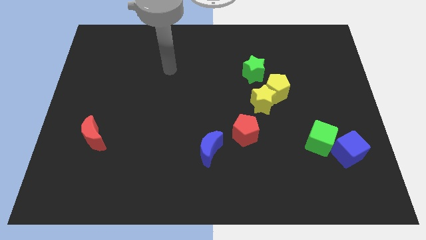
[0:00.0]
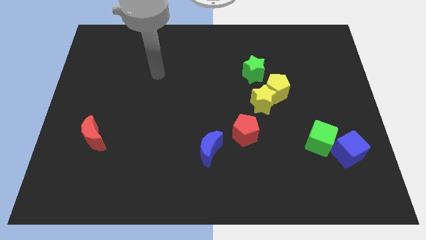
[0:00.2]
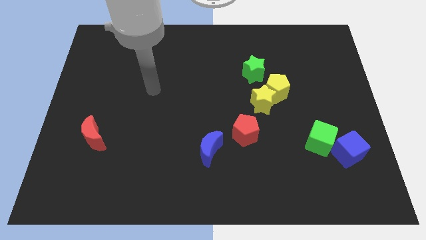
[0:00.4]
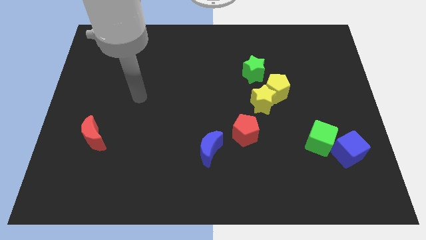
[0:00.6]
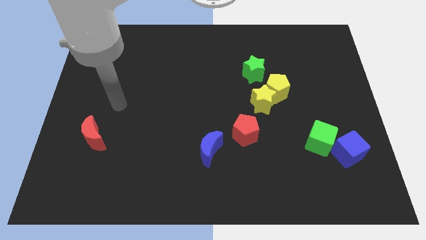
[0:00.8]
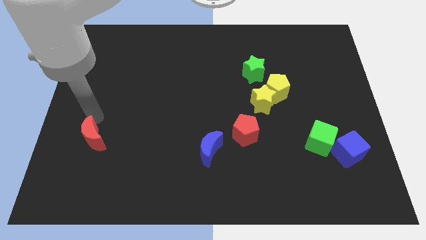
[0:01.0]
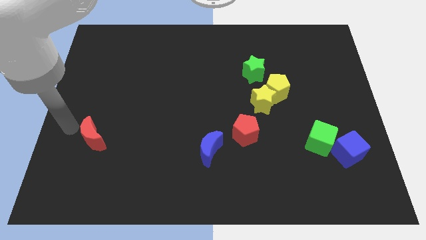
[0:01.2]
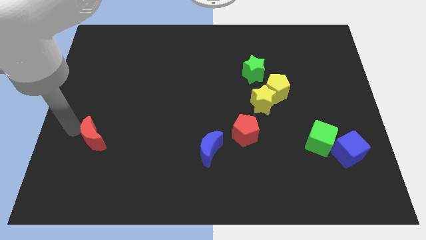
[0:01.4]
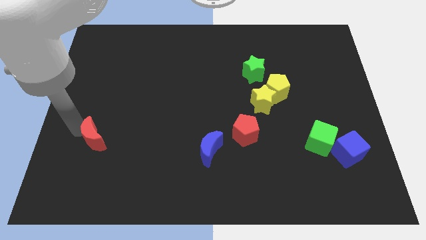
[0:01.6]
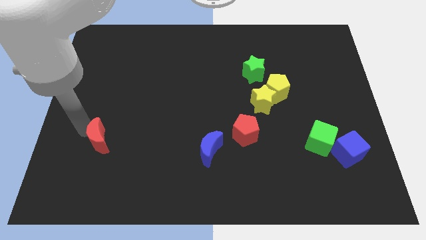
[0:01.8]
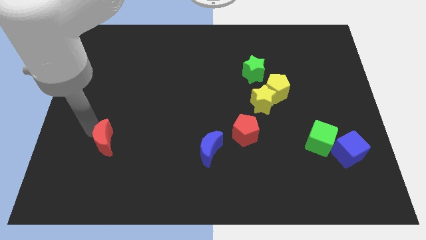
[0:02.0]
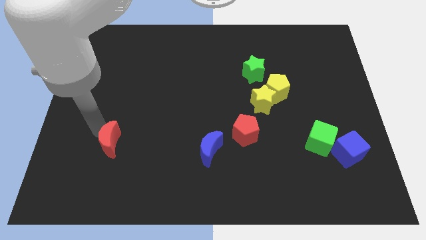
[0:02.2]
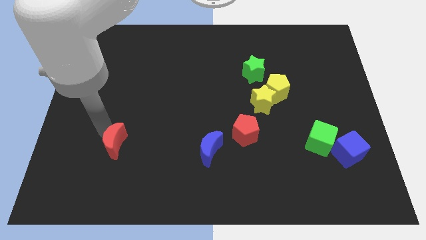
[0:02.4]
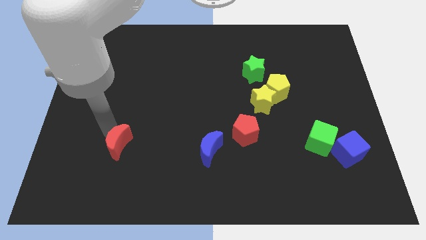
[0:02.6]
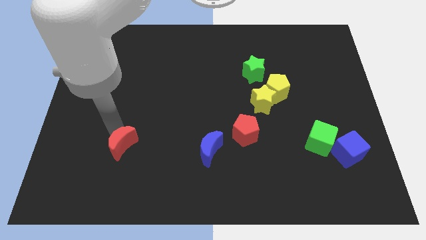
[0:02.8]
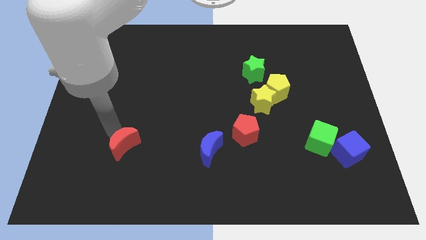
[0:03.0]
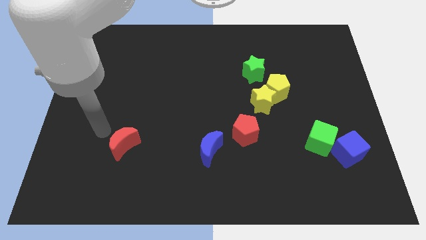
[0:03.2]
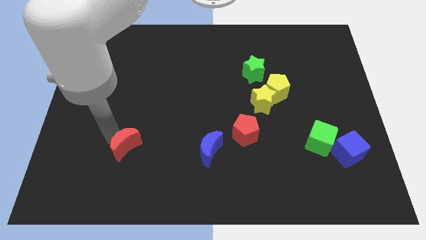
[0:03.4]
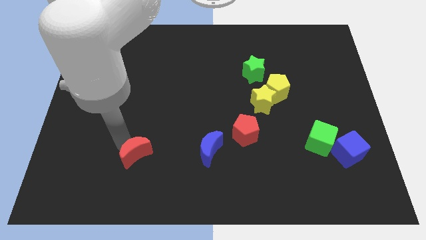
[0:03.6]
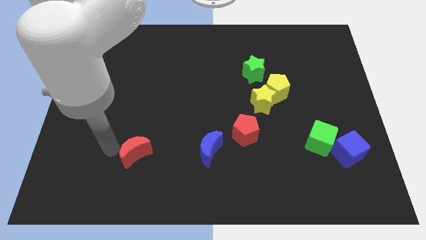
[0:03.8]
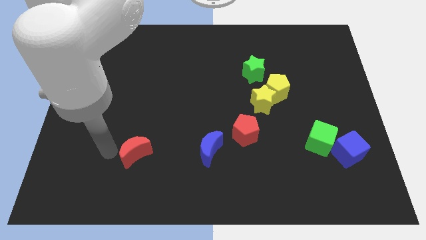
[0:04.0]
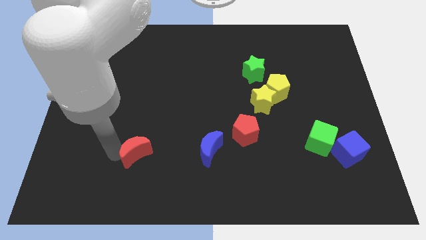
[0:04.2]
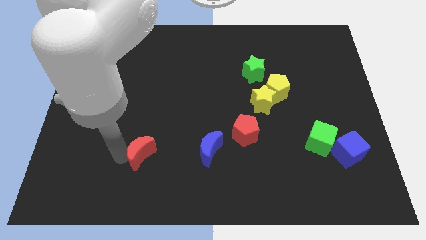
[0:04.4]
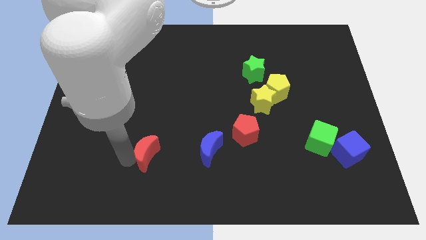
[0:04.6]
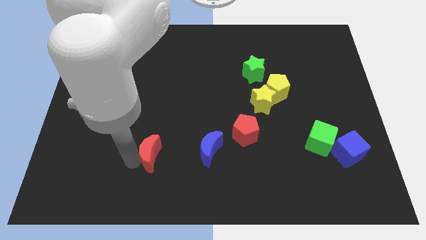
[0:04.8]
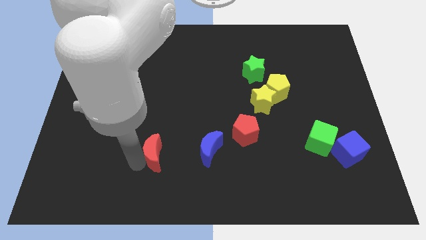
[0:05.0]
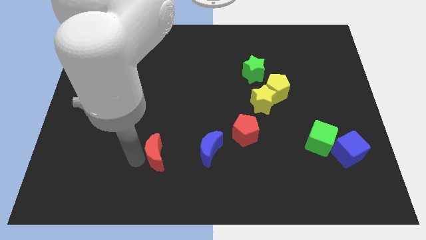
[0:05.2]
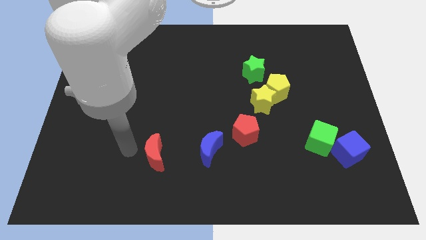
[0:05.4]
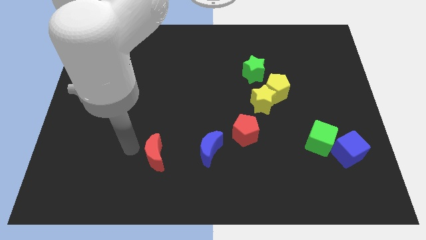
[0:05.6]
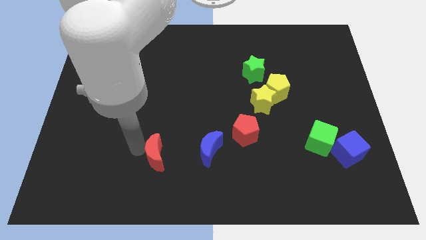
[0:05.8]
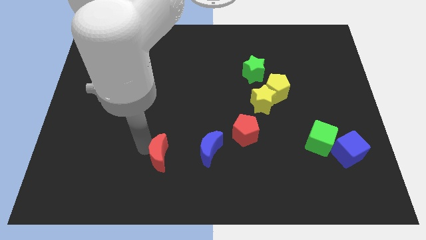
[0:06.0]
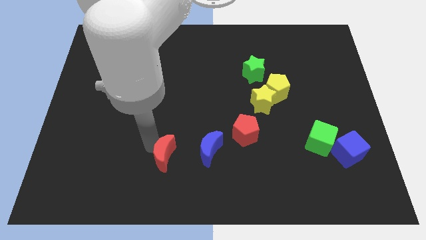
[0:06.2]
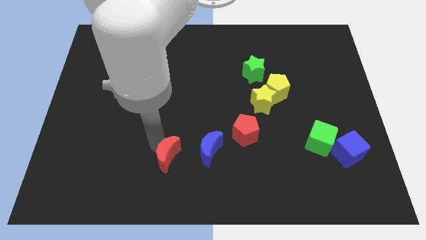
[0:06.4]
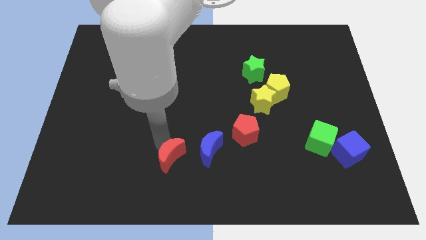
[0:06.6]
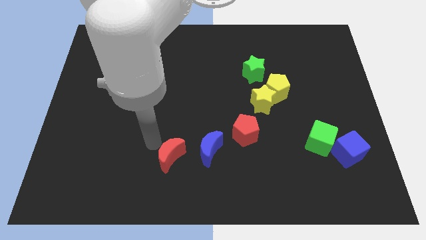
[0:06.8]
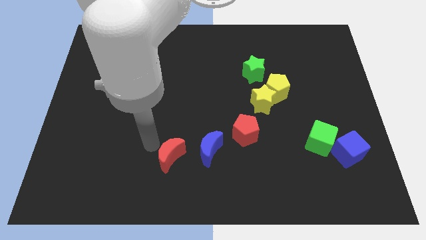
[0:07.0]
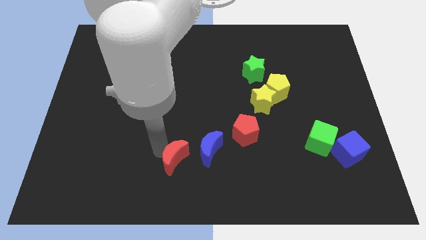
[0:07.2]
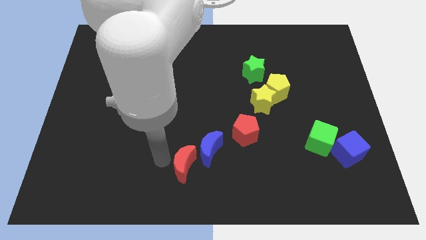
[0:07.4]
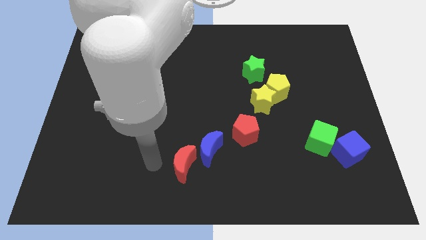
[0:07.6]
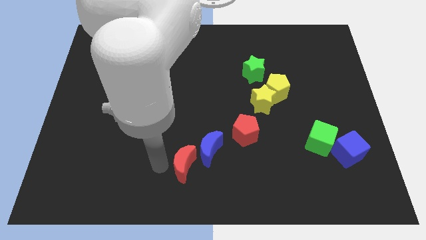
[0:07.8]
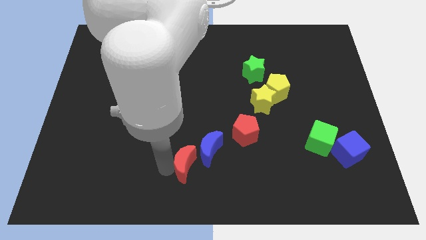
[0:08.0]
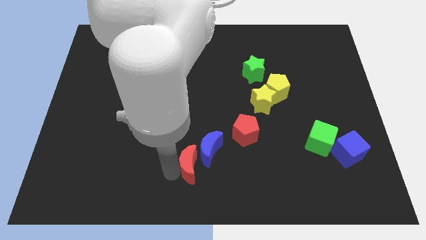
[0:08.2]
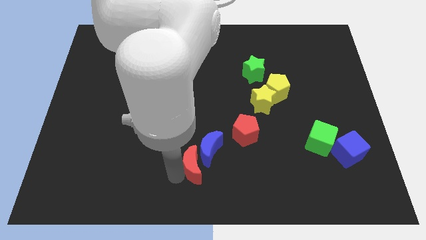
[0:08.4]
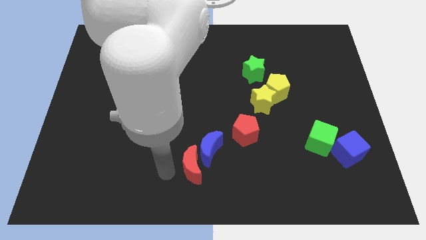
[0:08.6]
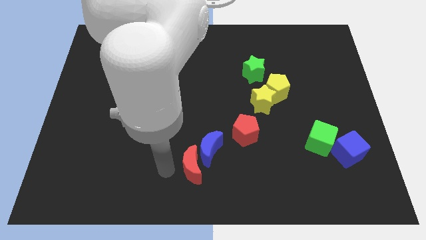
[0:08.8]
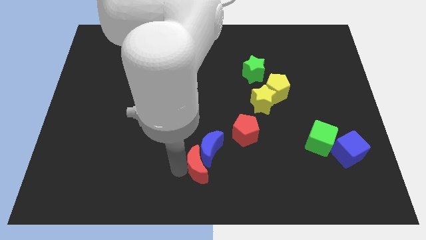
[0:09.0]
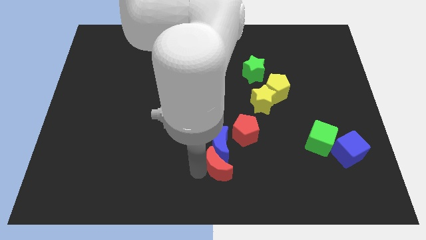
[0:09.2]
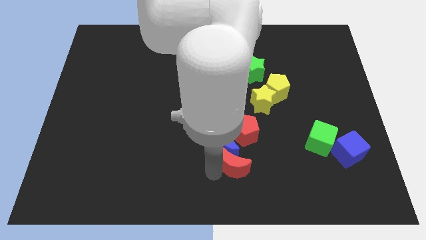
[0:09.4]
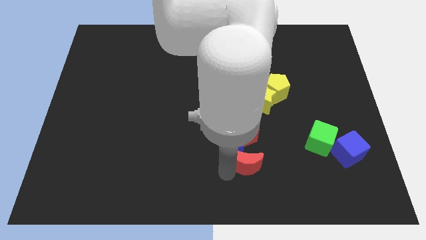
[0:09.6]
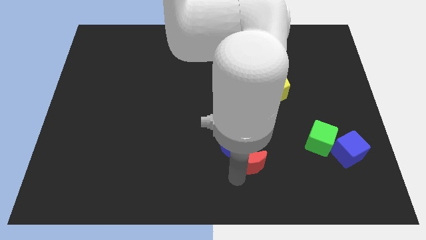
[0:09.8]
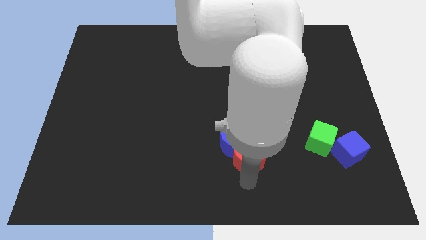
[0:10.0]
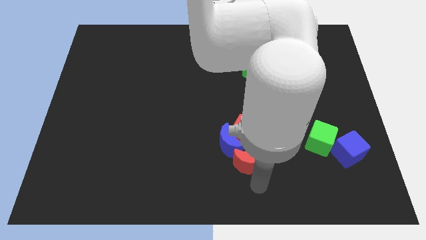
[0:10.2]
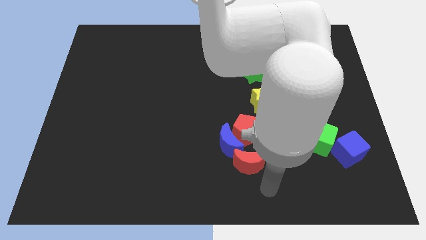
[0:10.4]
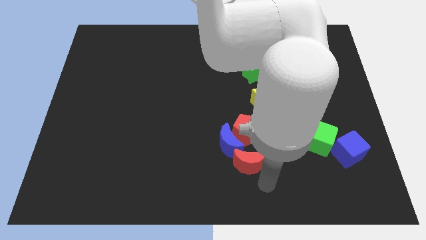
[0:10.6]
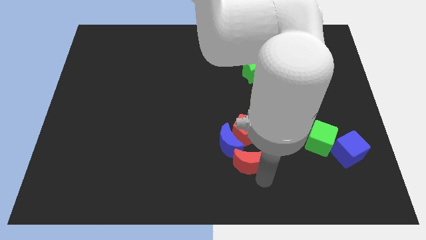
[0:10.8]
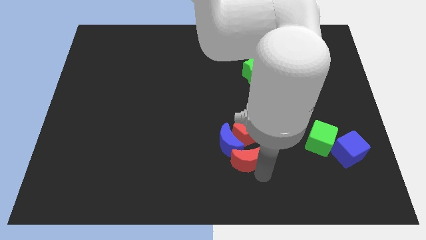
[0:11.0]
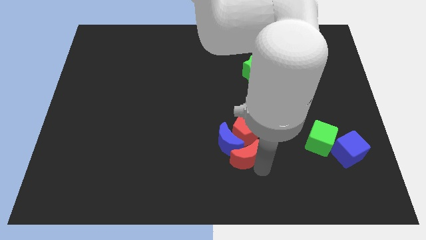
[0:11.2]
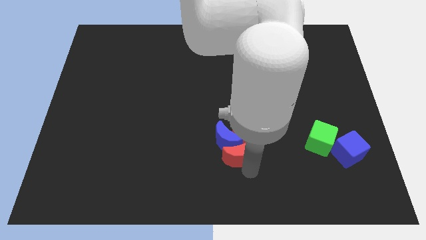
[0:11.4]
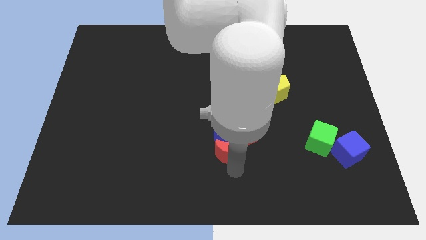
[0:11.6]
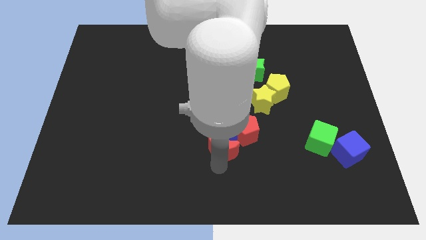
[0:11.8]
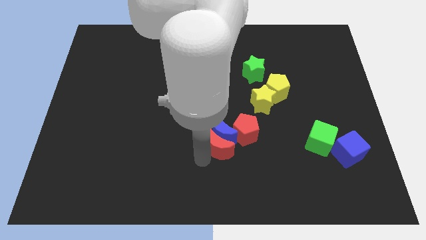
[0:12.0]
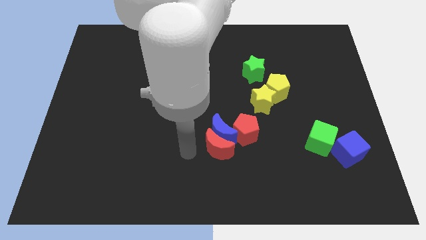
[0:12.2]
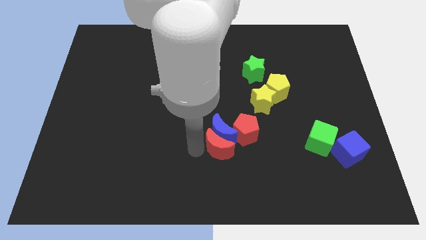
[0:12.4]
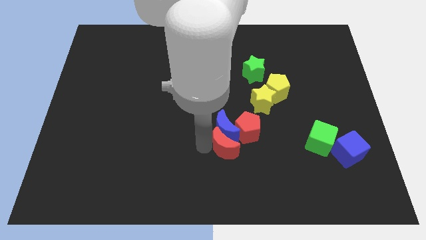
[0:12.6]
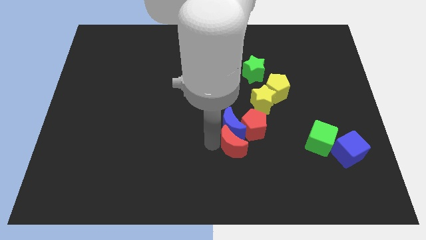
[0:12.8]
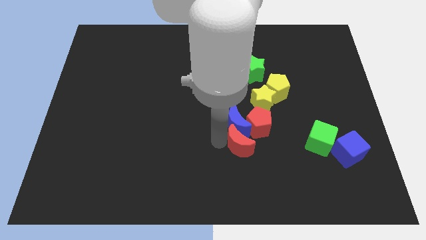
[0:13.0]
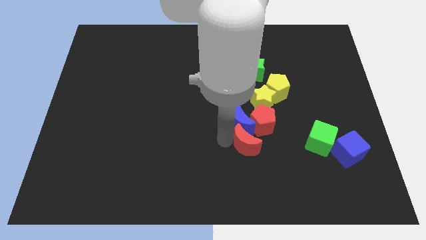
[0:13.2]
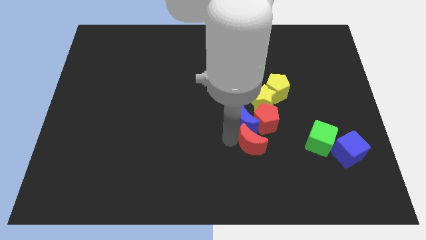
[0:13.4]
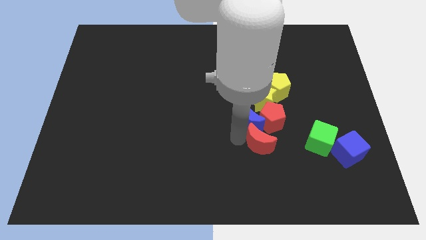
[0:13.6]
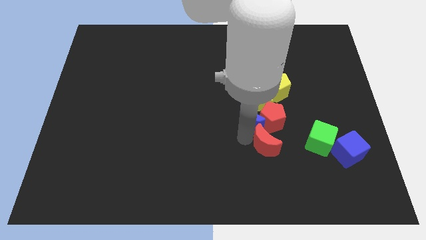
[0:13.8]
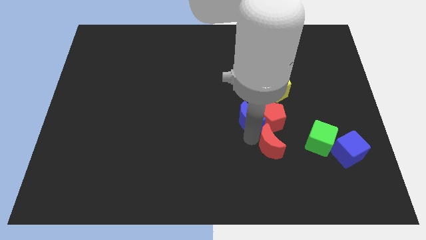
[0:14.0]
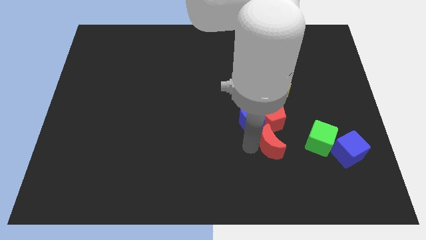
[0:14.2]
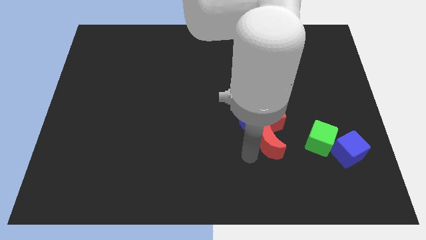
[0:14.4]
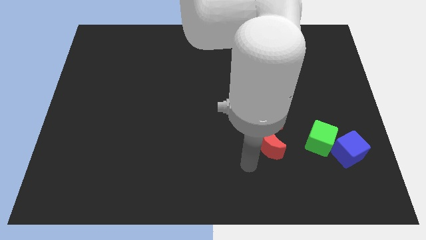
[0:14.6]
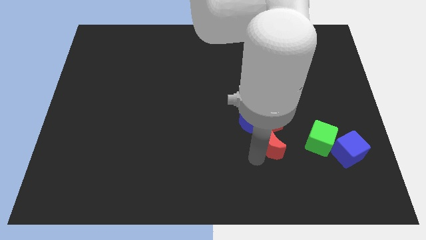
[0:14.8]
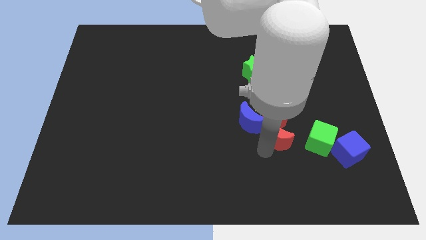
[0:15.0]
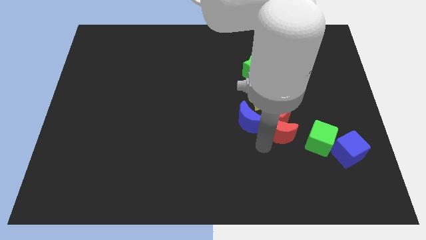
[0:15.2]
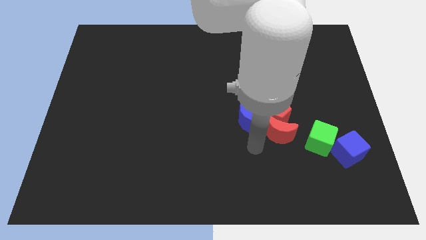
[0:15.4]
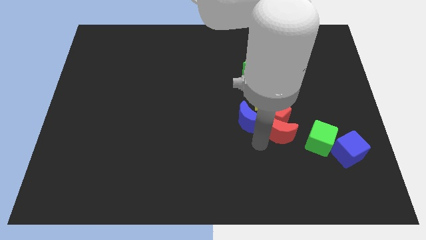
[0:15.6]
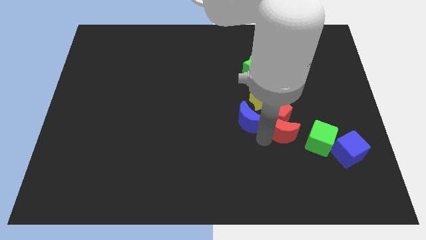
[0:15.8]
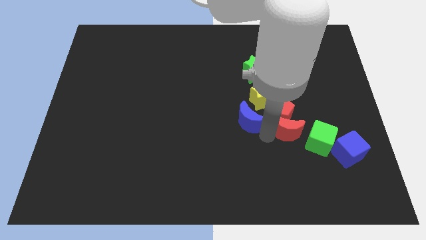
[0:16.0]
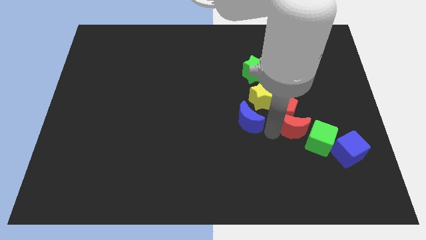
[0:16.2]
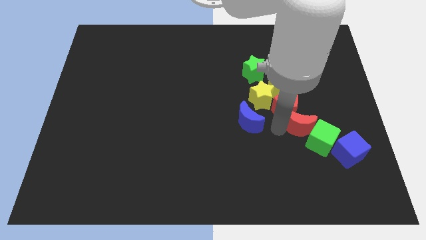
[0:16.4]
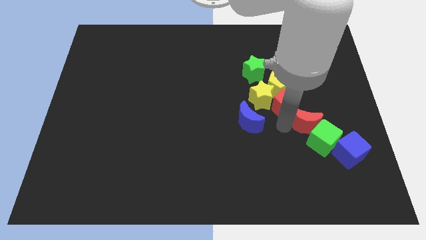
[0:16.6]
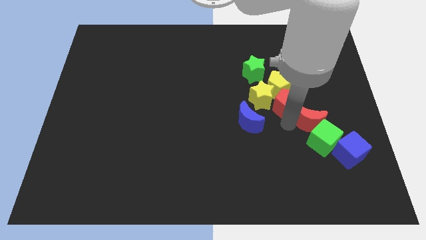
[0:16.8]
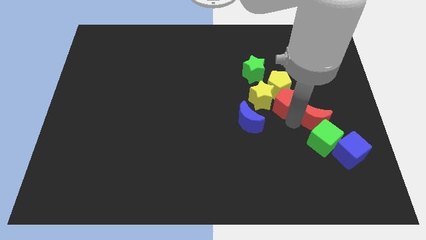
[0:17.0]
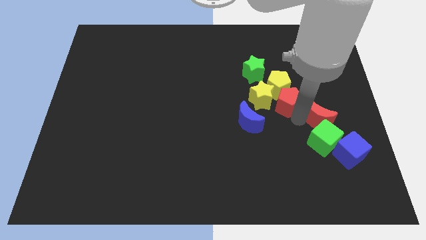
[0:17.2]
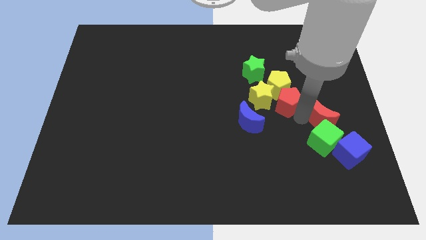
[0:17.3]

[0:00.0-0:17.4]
push the red moon to the top side of the blue cube
